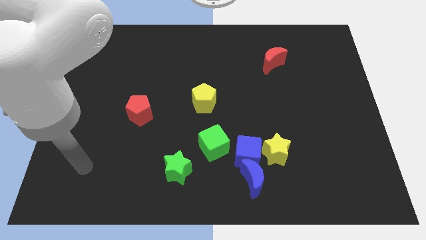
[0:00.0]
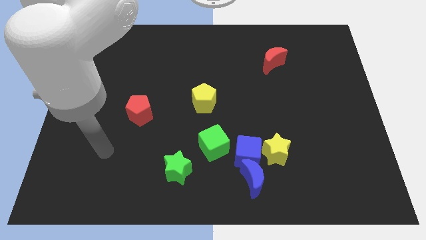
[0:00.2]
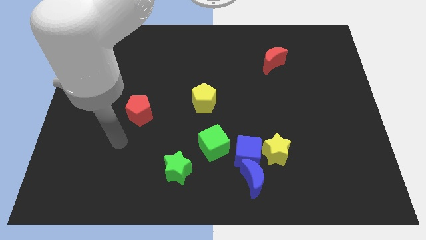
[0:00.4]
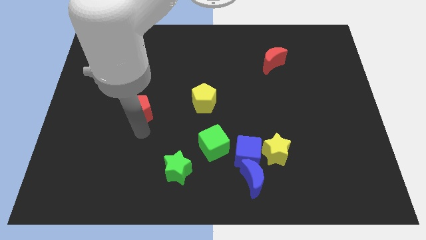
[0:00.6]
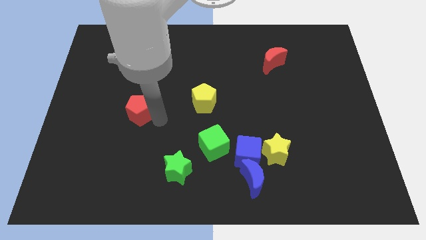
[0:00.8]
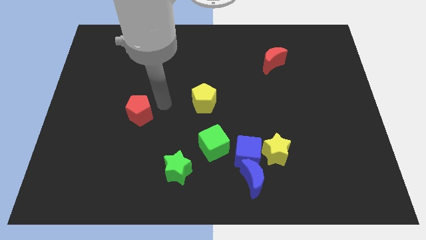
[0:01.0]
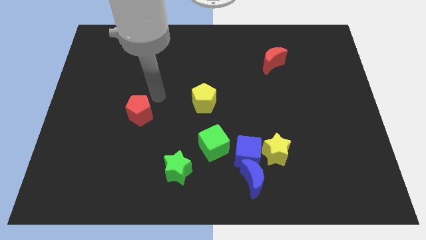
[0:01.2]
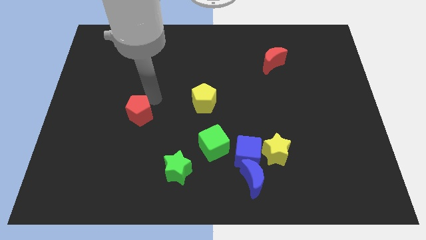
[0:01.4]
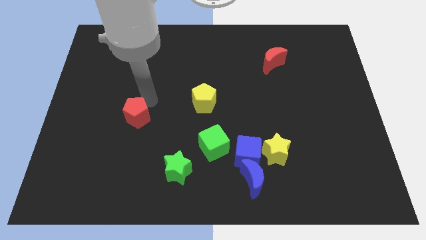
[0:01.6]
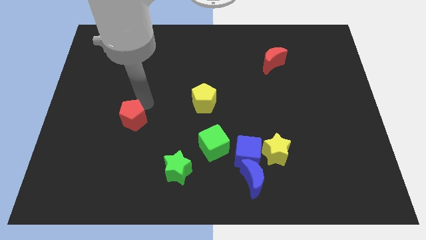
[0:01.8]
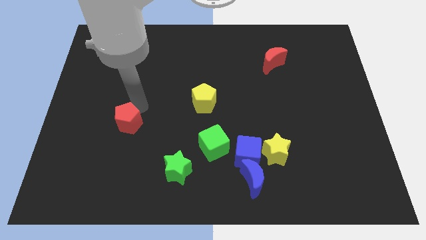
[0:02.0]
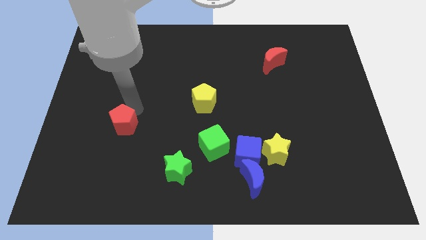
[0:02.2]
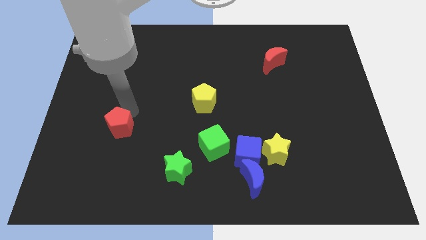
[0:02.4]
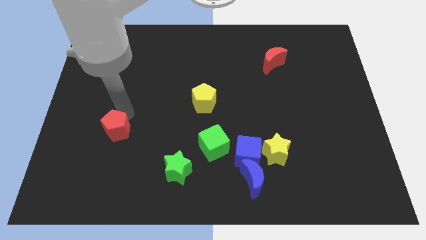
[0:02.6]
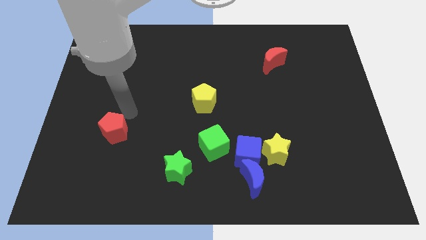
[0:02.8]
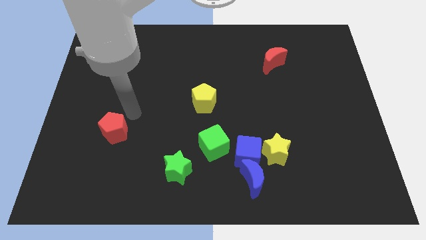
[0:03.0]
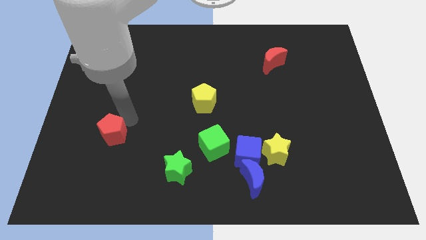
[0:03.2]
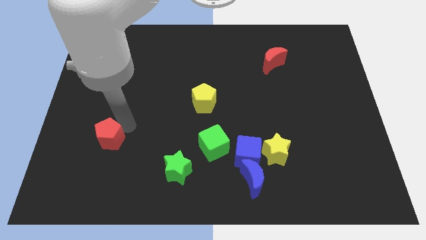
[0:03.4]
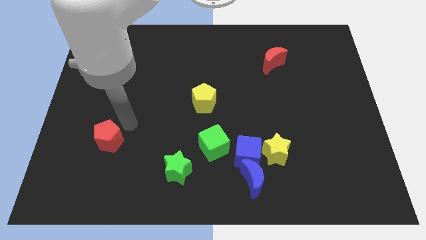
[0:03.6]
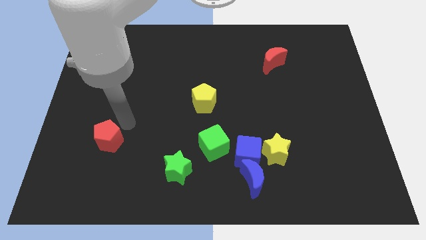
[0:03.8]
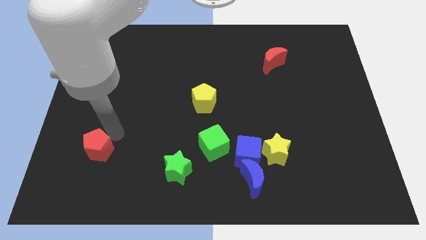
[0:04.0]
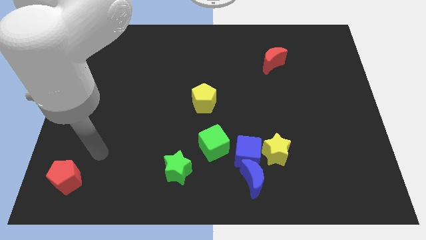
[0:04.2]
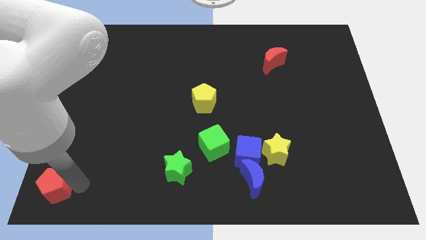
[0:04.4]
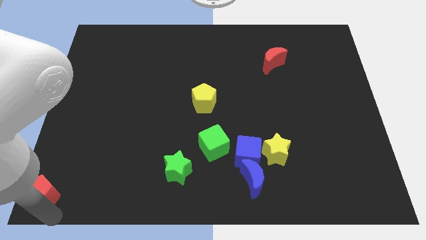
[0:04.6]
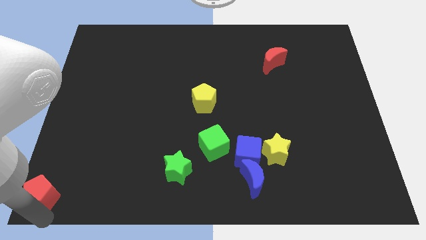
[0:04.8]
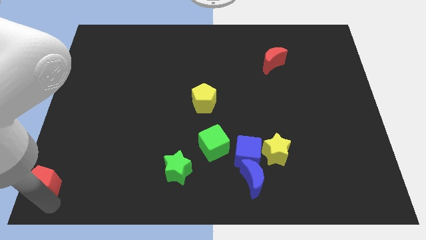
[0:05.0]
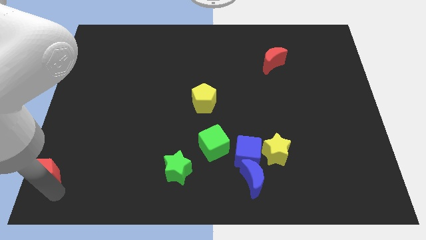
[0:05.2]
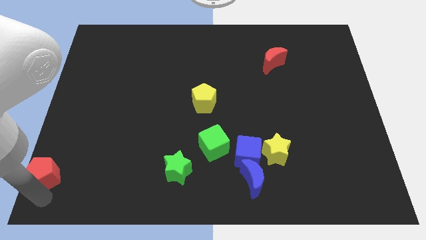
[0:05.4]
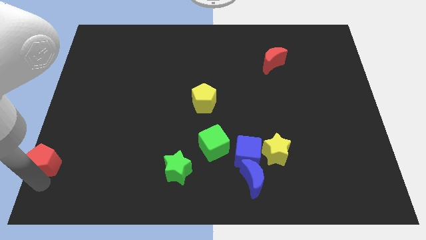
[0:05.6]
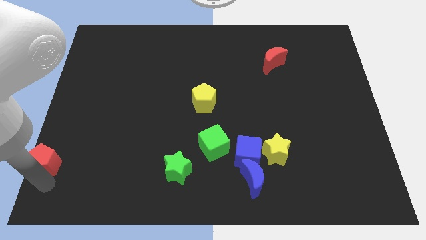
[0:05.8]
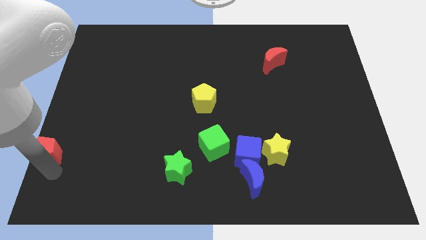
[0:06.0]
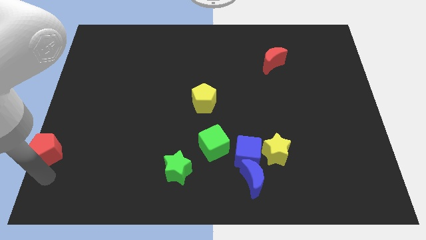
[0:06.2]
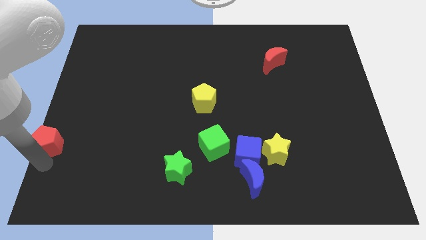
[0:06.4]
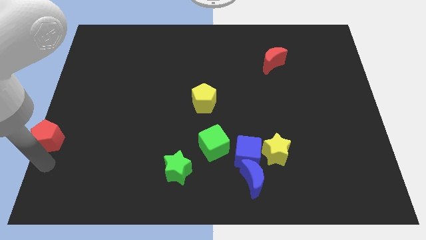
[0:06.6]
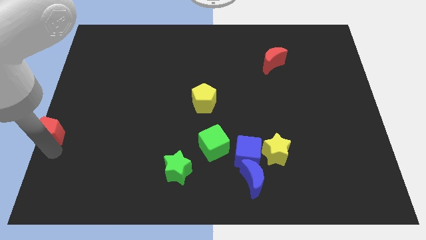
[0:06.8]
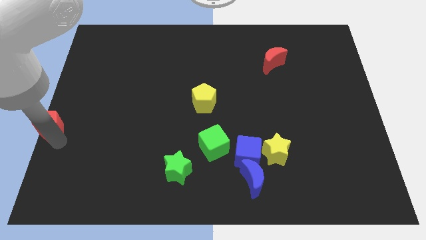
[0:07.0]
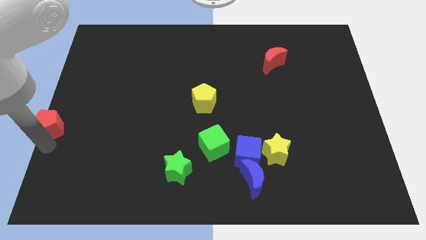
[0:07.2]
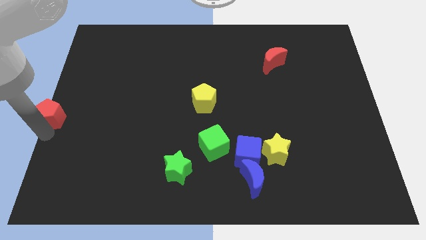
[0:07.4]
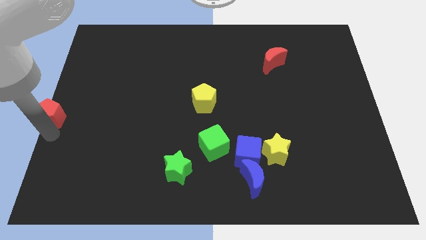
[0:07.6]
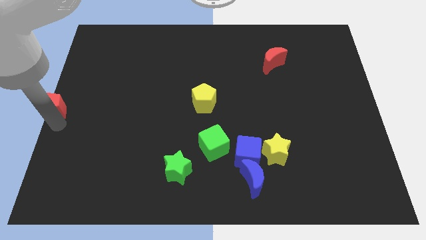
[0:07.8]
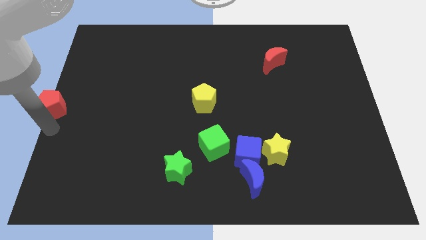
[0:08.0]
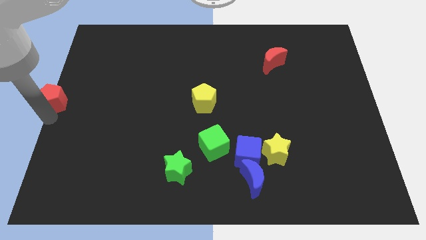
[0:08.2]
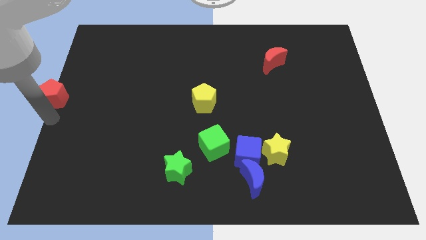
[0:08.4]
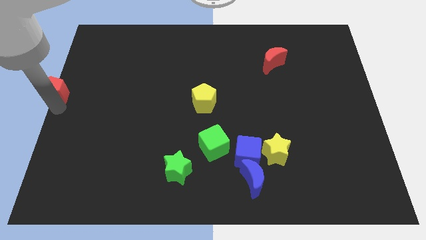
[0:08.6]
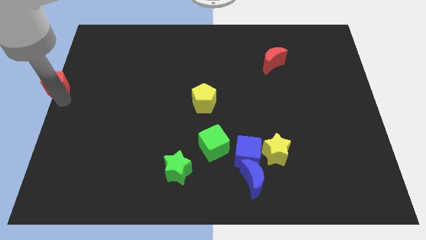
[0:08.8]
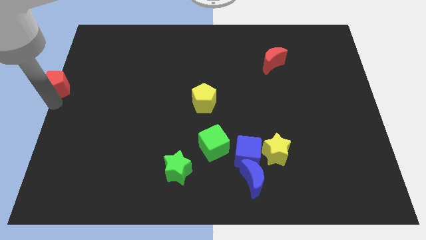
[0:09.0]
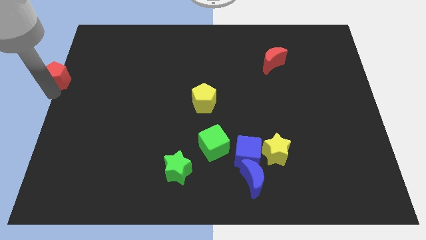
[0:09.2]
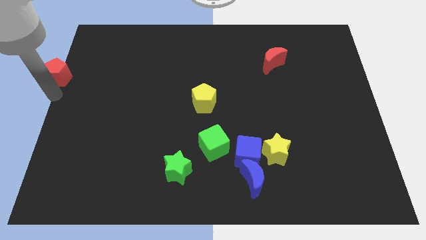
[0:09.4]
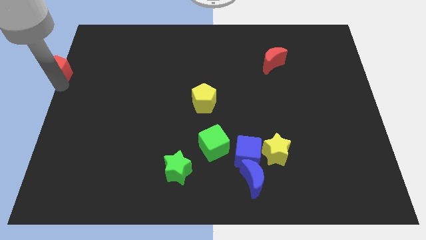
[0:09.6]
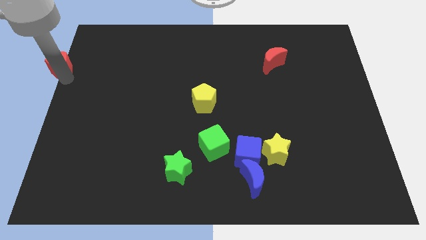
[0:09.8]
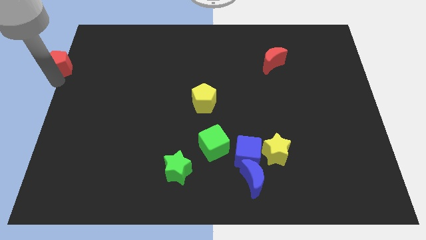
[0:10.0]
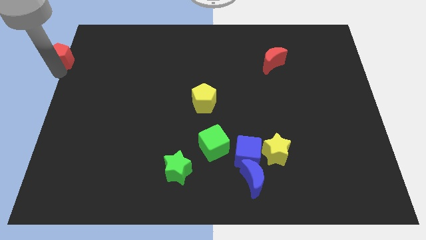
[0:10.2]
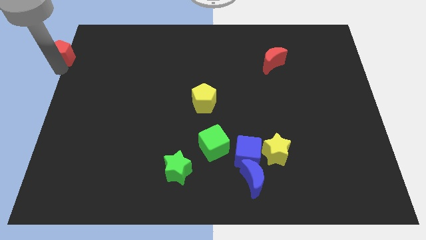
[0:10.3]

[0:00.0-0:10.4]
push the red pentagon to the top left corner

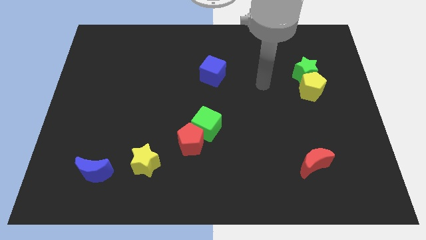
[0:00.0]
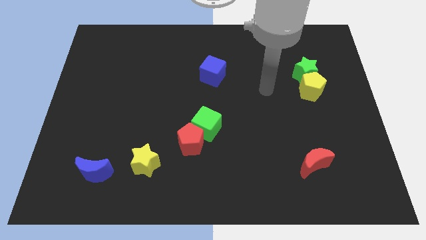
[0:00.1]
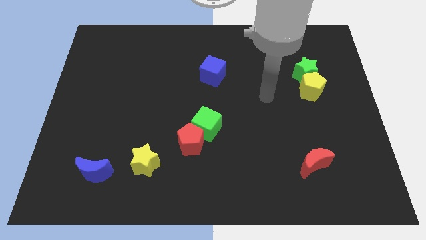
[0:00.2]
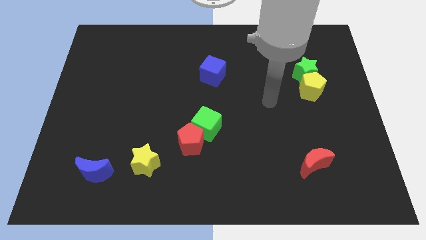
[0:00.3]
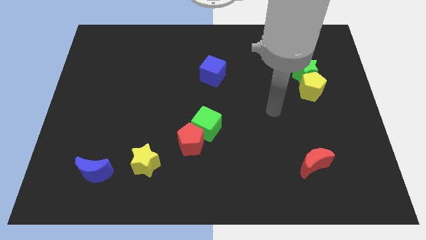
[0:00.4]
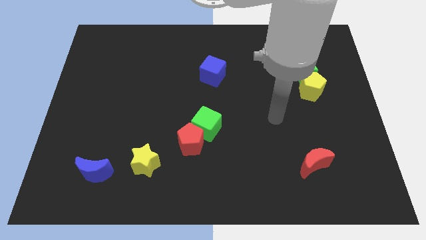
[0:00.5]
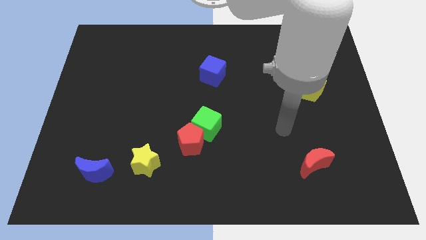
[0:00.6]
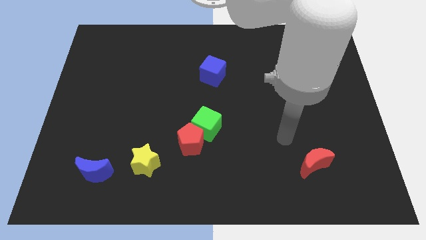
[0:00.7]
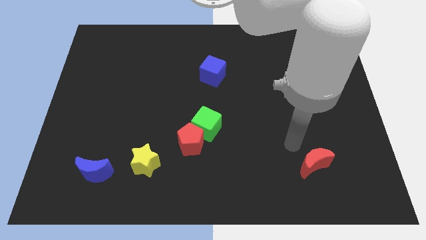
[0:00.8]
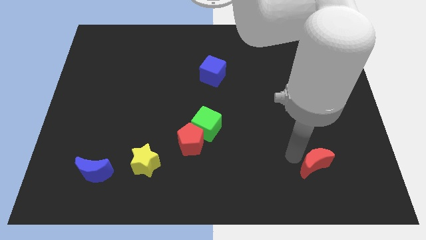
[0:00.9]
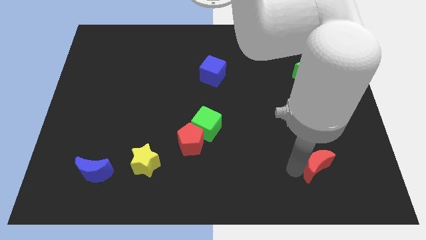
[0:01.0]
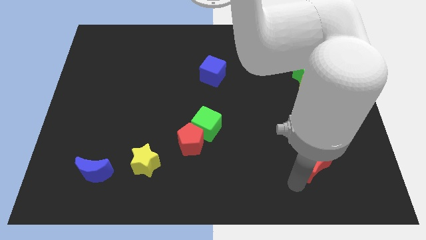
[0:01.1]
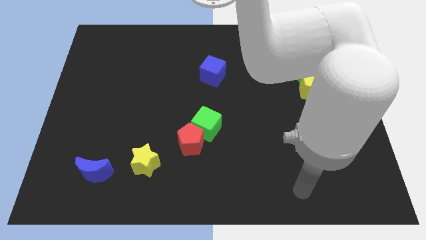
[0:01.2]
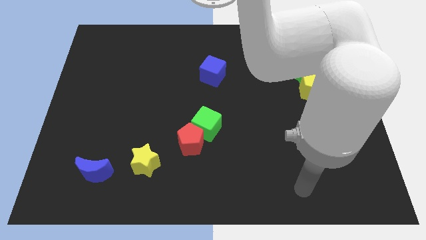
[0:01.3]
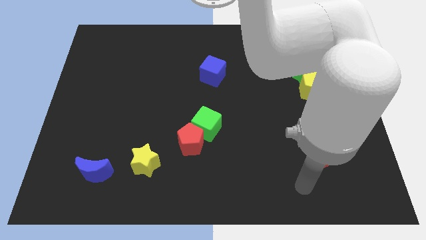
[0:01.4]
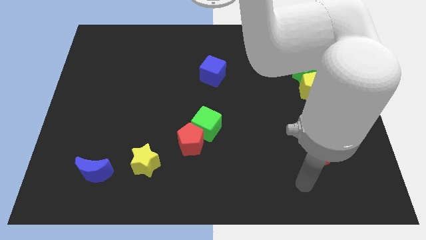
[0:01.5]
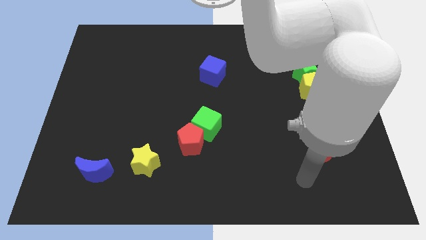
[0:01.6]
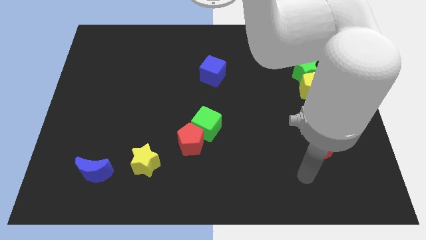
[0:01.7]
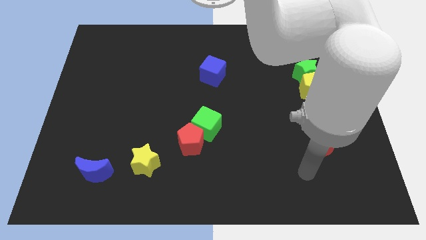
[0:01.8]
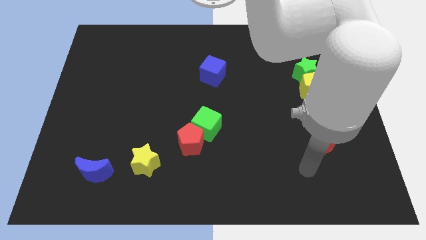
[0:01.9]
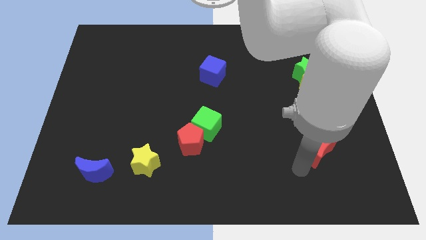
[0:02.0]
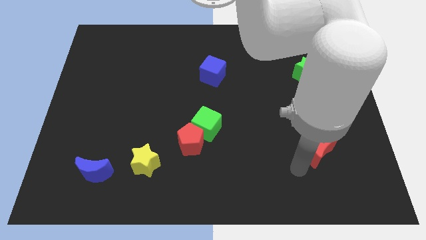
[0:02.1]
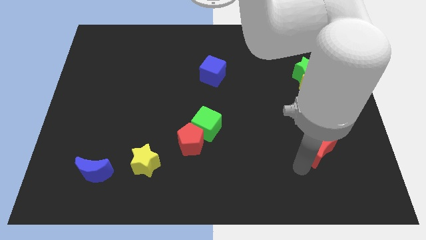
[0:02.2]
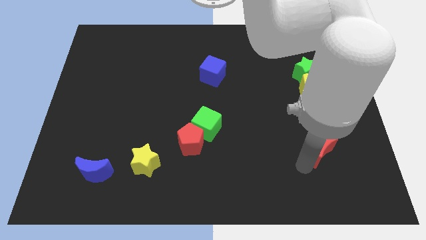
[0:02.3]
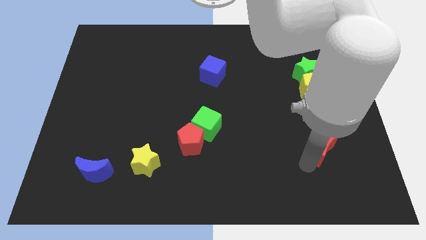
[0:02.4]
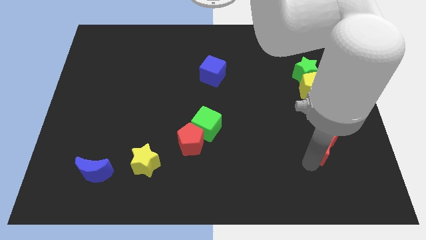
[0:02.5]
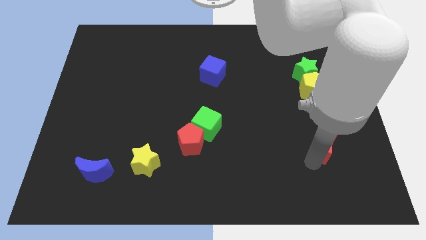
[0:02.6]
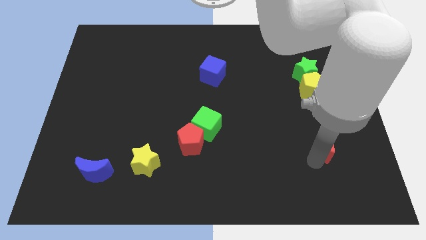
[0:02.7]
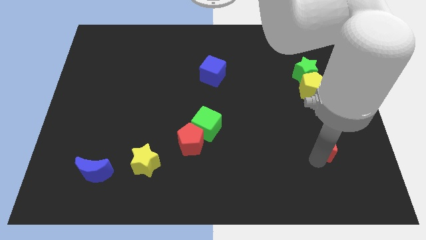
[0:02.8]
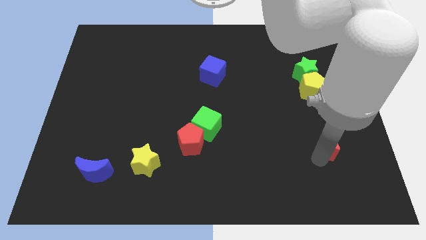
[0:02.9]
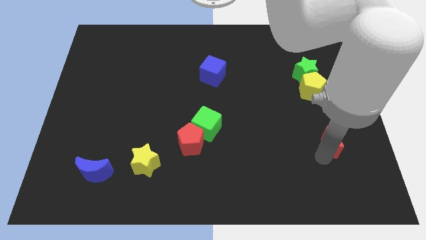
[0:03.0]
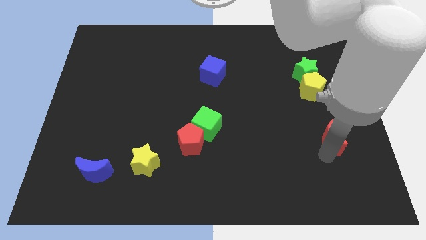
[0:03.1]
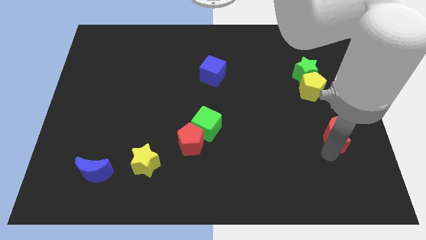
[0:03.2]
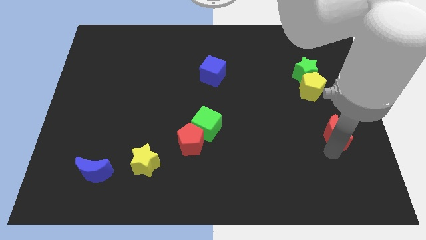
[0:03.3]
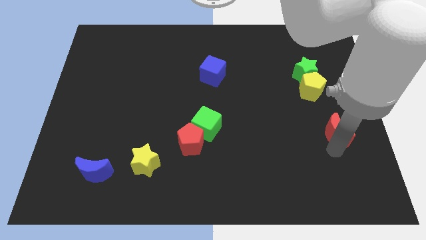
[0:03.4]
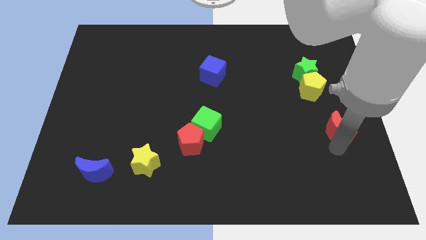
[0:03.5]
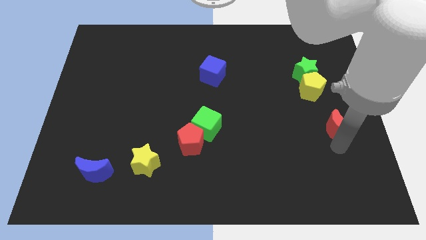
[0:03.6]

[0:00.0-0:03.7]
push the red moon to the center right
